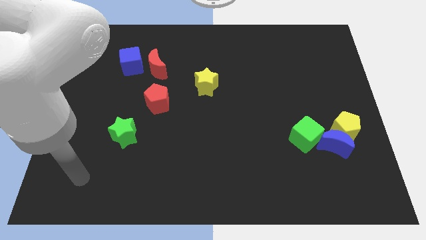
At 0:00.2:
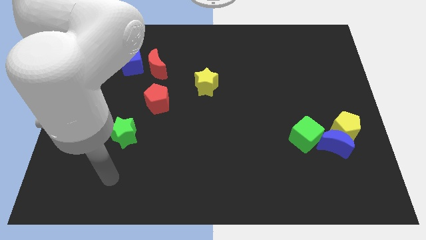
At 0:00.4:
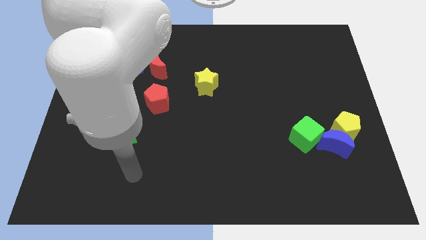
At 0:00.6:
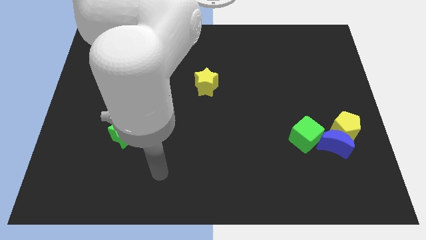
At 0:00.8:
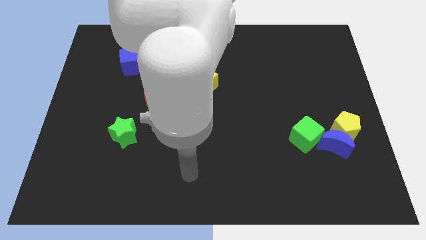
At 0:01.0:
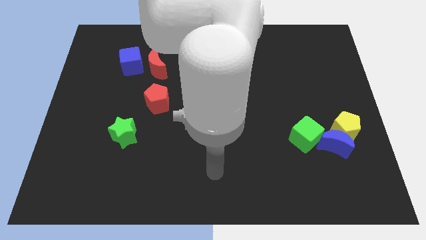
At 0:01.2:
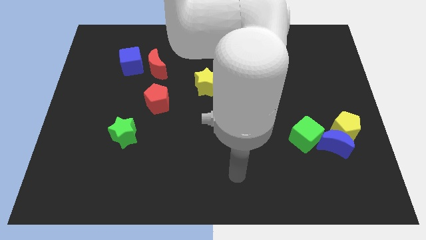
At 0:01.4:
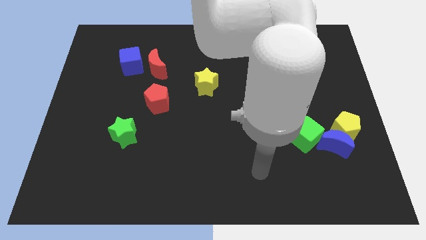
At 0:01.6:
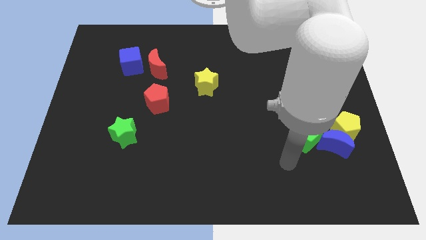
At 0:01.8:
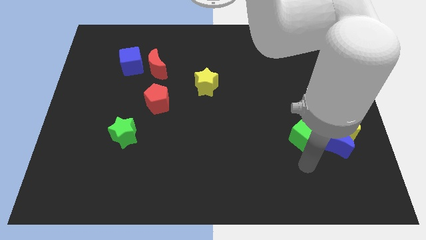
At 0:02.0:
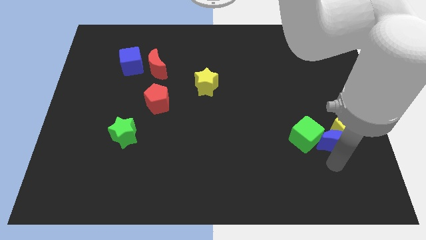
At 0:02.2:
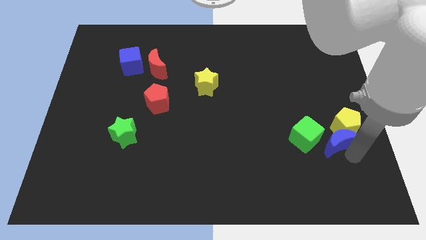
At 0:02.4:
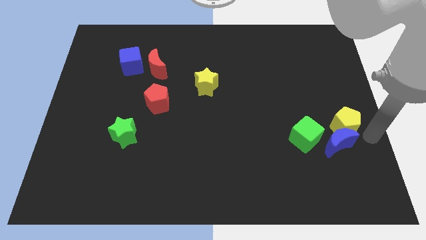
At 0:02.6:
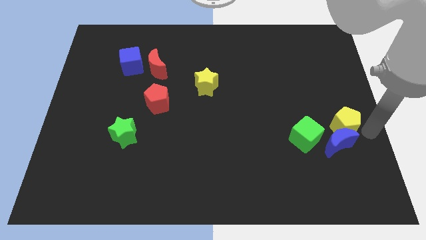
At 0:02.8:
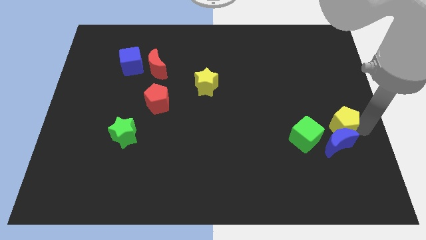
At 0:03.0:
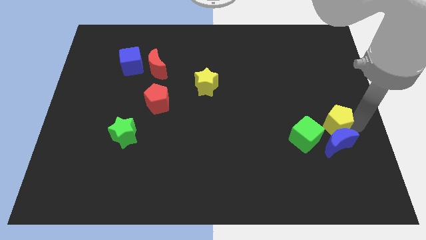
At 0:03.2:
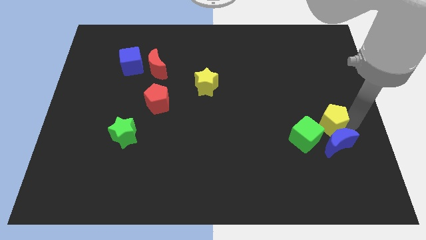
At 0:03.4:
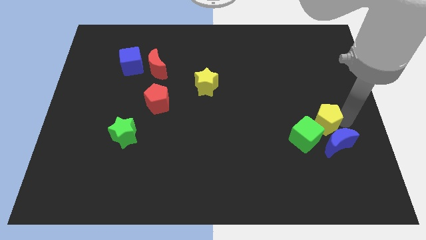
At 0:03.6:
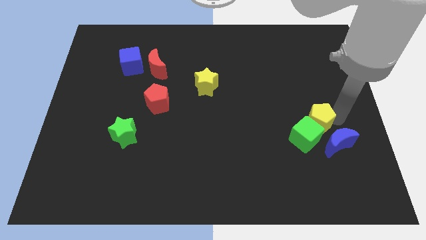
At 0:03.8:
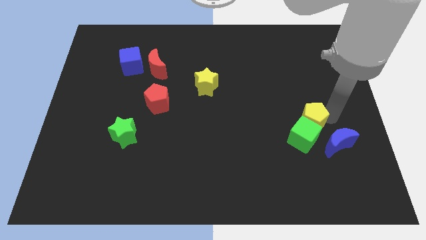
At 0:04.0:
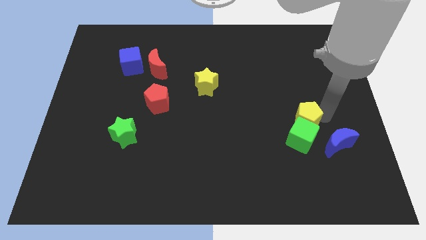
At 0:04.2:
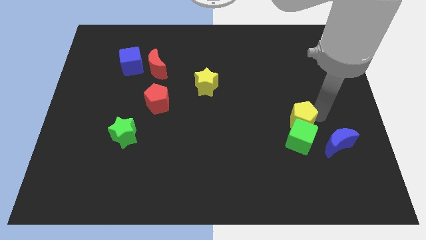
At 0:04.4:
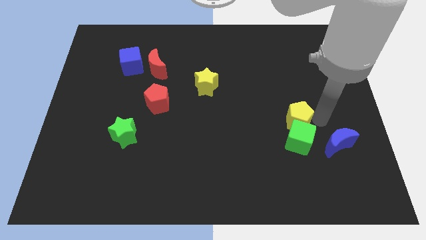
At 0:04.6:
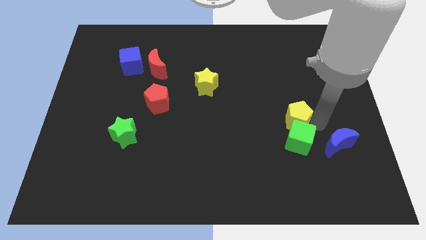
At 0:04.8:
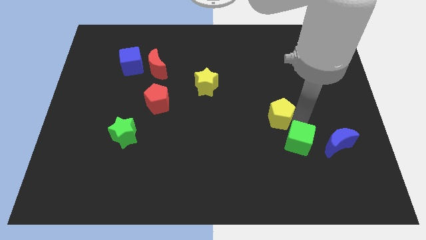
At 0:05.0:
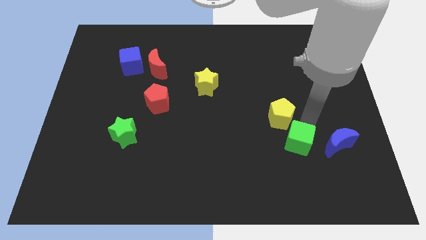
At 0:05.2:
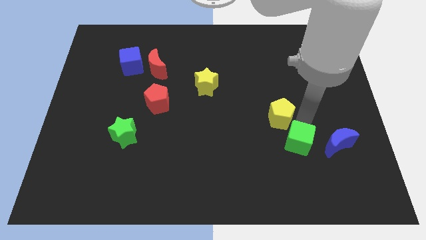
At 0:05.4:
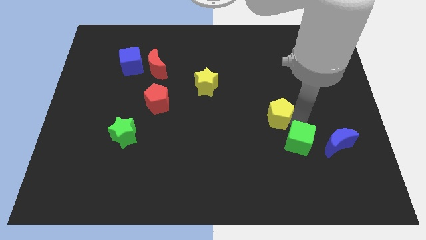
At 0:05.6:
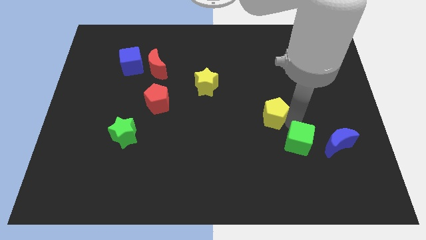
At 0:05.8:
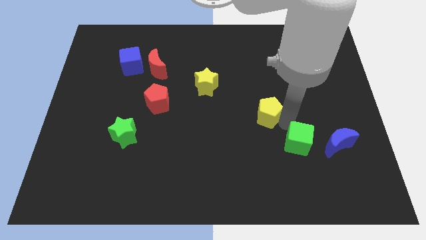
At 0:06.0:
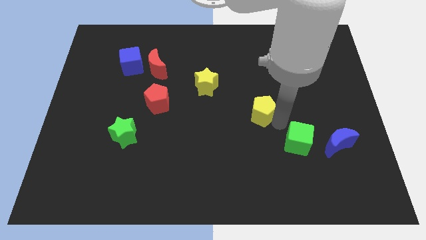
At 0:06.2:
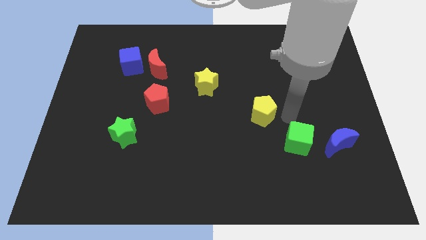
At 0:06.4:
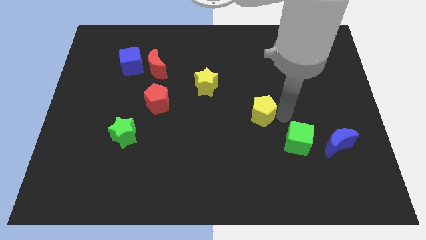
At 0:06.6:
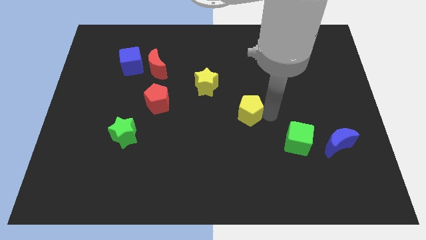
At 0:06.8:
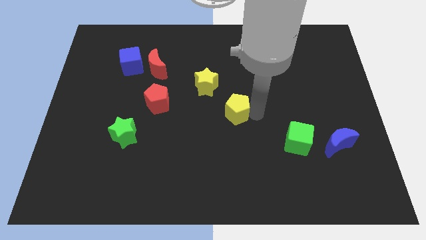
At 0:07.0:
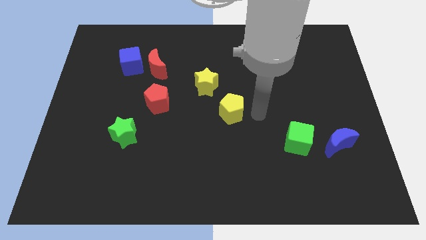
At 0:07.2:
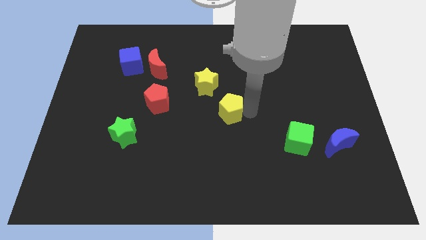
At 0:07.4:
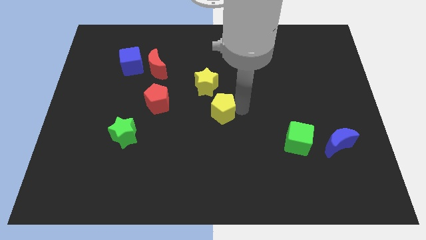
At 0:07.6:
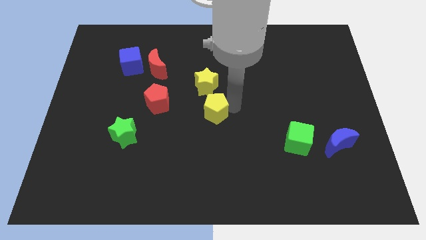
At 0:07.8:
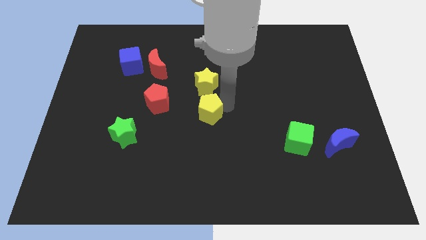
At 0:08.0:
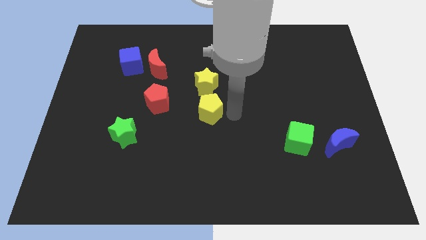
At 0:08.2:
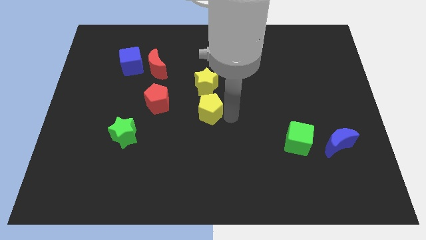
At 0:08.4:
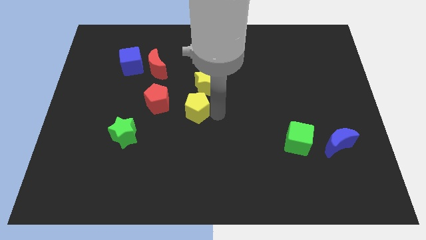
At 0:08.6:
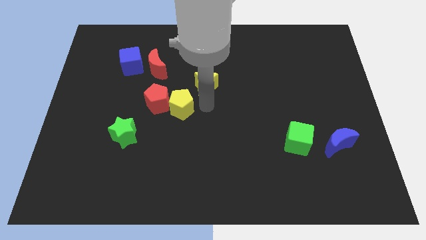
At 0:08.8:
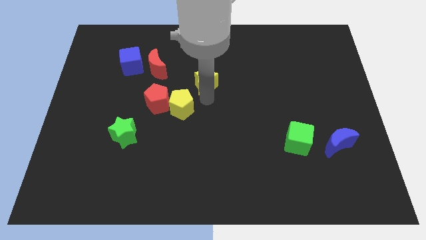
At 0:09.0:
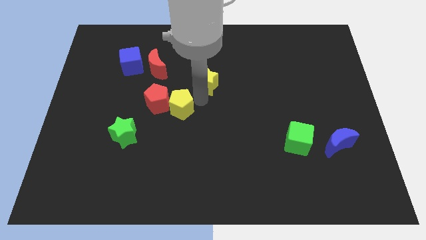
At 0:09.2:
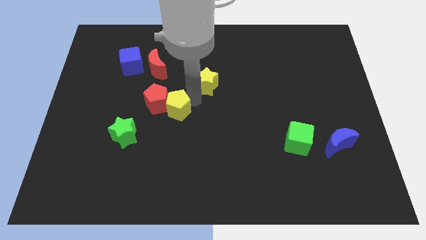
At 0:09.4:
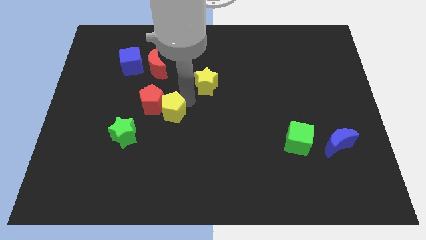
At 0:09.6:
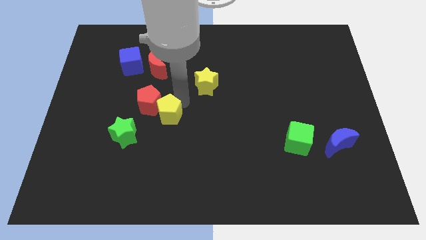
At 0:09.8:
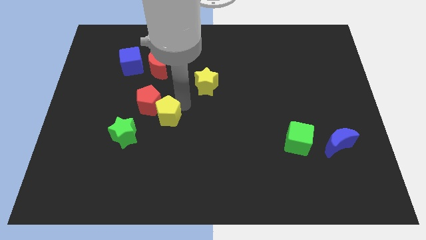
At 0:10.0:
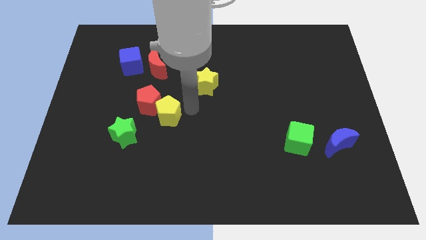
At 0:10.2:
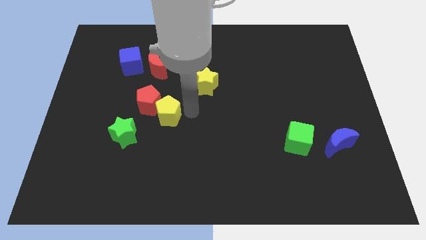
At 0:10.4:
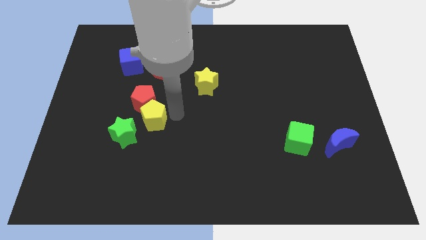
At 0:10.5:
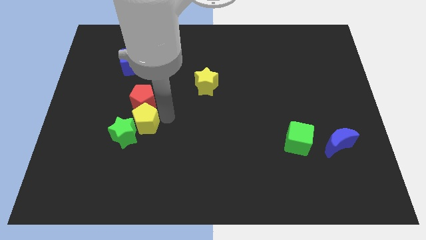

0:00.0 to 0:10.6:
put the yellow pentagon to the bottom left of the red pentagon

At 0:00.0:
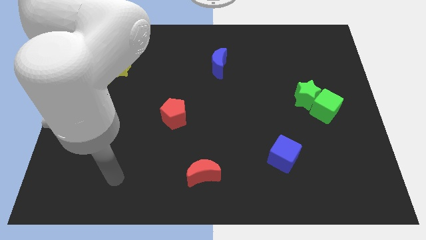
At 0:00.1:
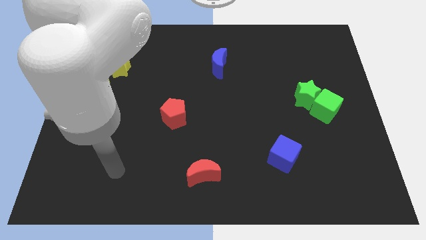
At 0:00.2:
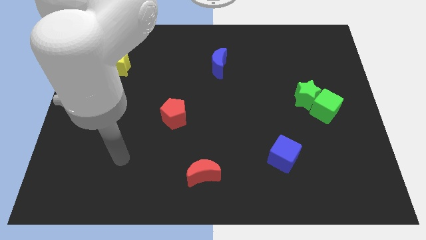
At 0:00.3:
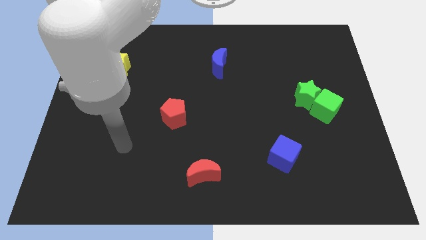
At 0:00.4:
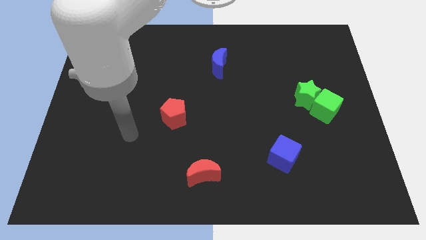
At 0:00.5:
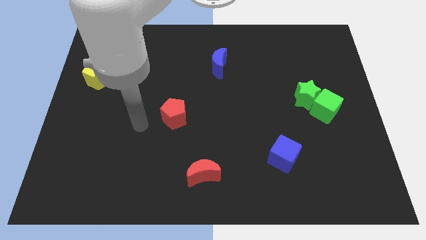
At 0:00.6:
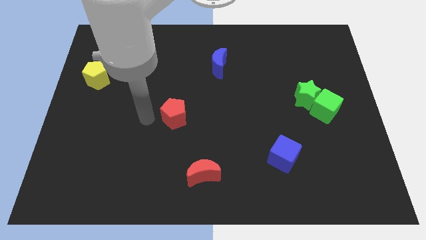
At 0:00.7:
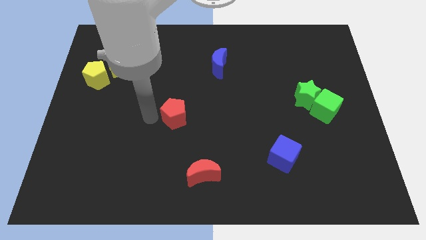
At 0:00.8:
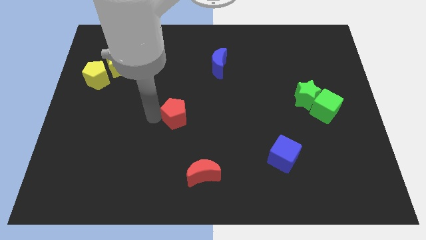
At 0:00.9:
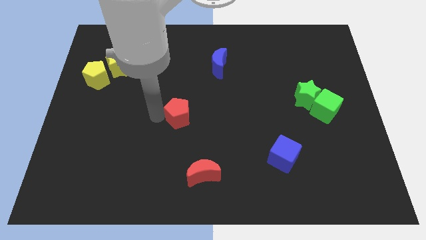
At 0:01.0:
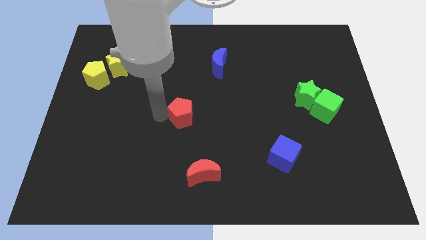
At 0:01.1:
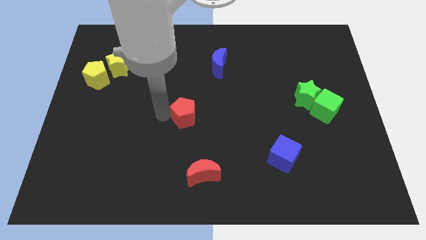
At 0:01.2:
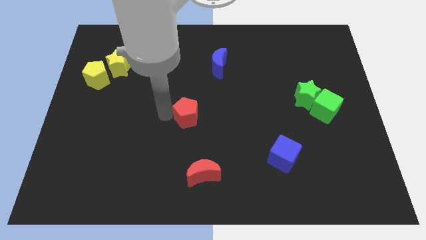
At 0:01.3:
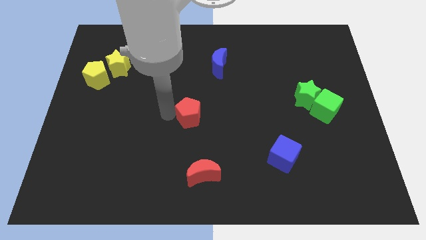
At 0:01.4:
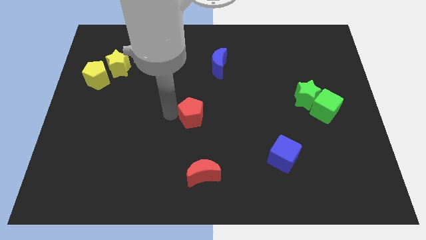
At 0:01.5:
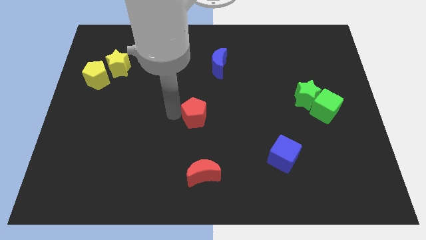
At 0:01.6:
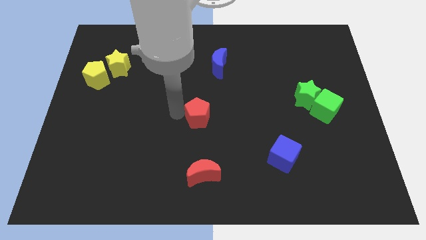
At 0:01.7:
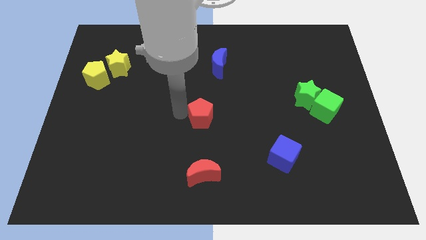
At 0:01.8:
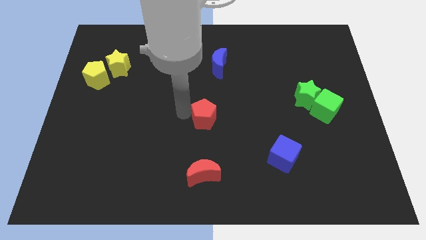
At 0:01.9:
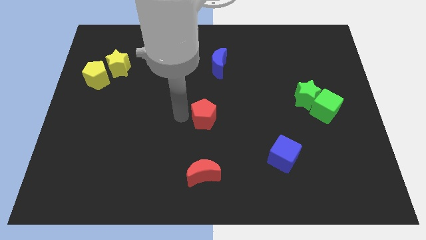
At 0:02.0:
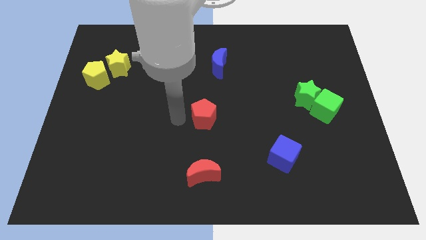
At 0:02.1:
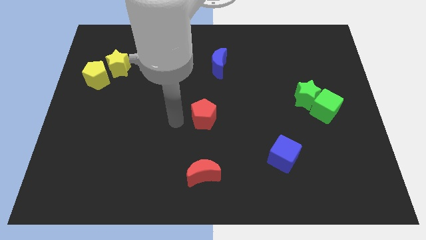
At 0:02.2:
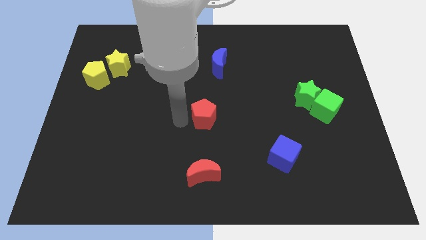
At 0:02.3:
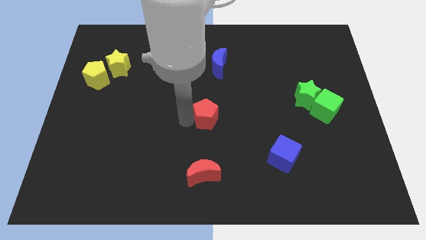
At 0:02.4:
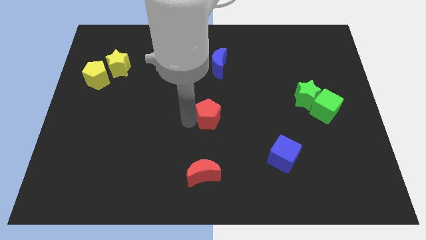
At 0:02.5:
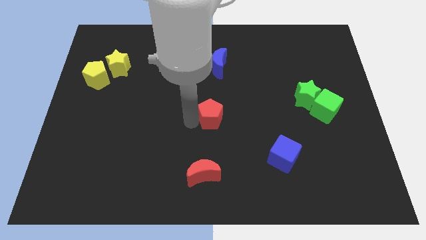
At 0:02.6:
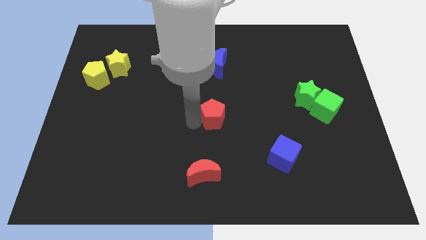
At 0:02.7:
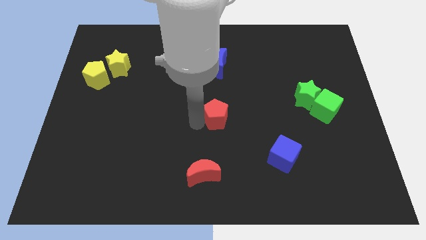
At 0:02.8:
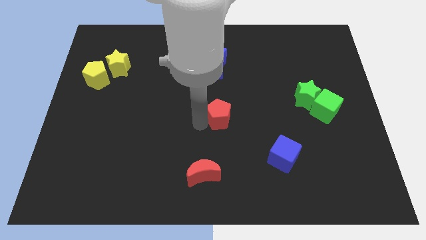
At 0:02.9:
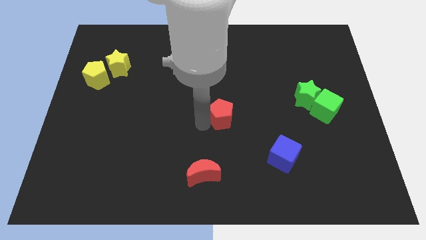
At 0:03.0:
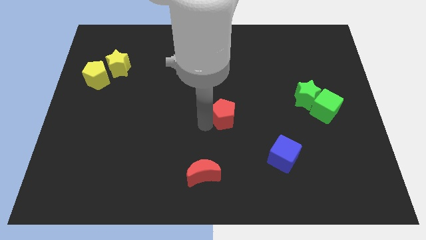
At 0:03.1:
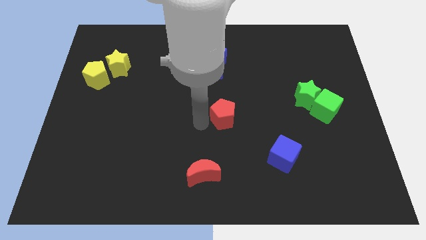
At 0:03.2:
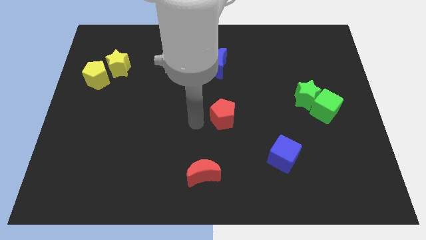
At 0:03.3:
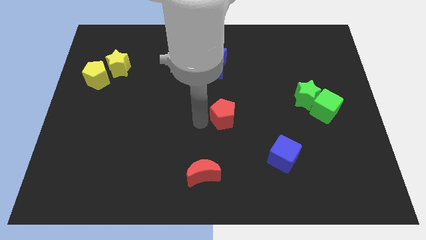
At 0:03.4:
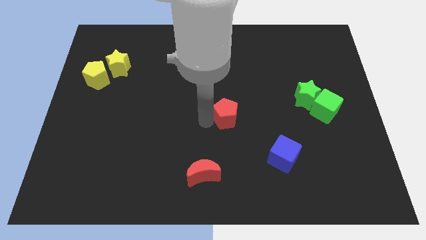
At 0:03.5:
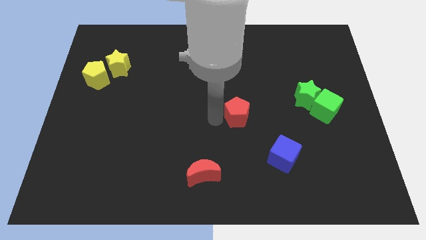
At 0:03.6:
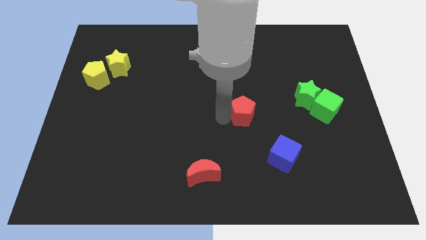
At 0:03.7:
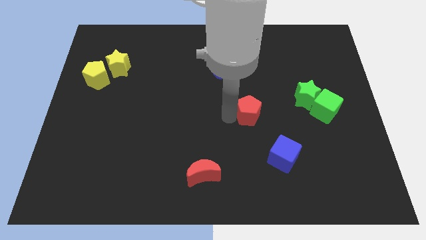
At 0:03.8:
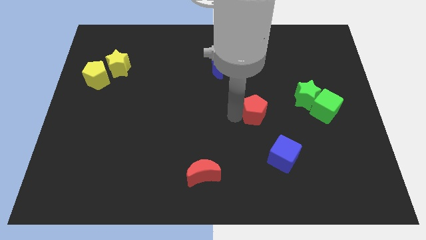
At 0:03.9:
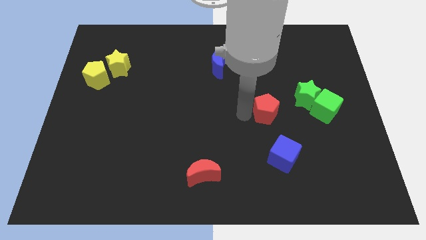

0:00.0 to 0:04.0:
slide the red pentagon diagonally down and to the left of the green star
